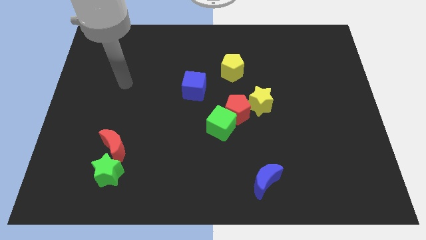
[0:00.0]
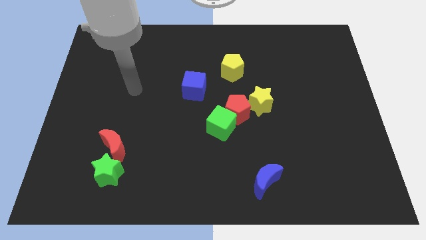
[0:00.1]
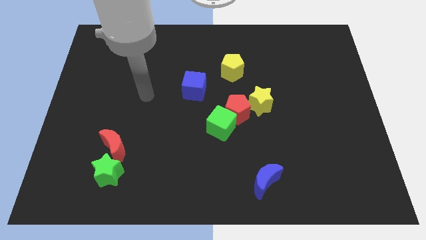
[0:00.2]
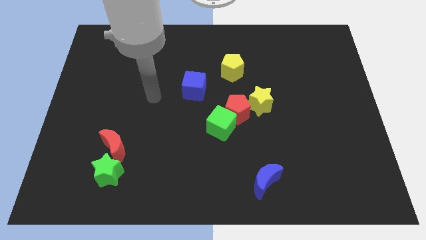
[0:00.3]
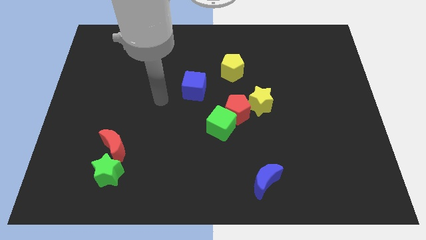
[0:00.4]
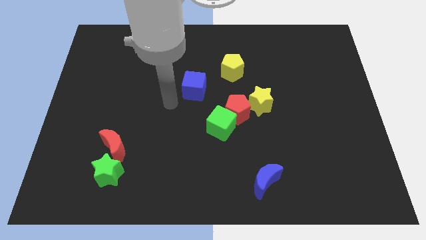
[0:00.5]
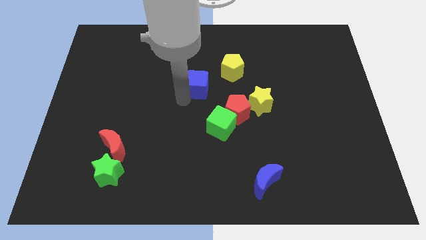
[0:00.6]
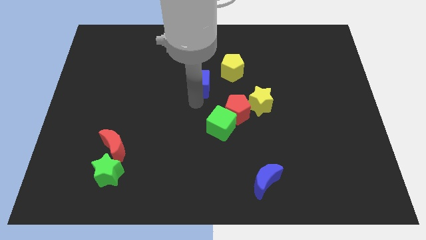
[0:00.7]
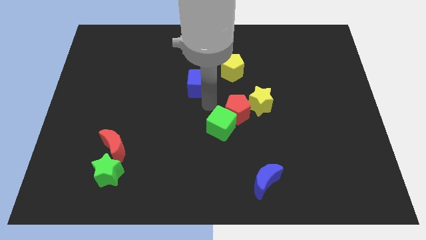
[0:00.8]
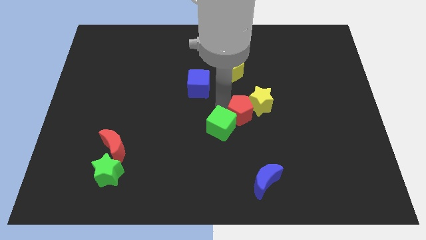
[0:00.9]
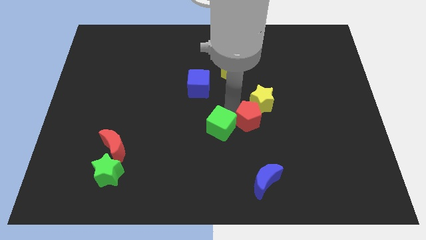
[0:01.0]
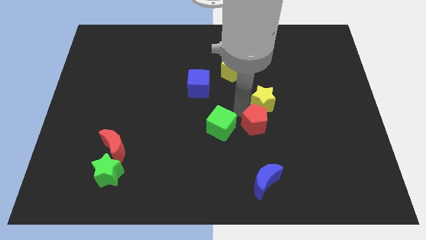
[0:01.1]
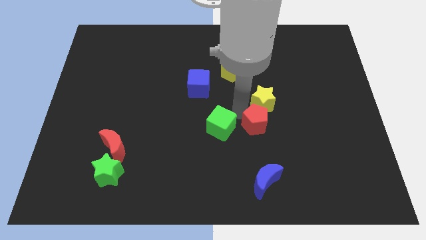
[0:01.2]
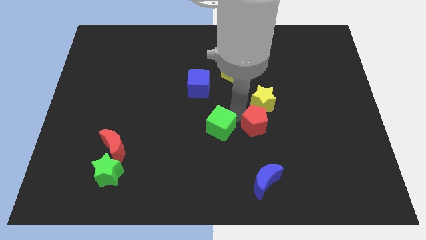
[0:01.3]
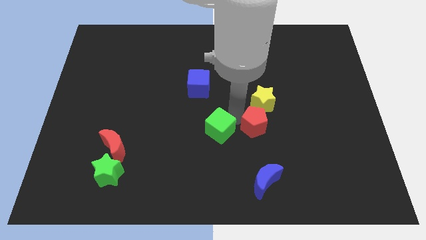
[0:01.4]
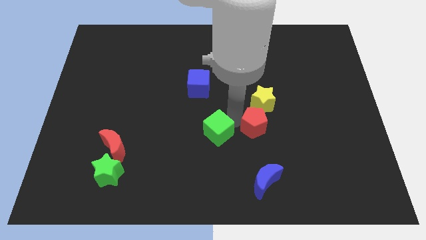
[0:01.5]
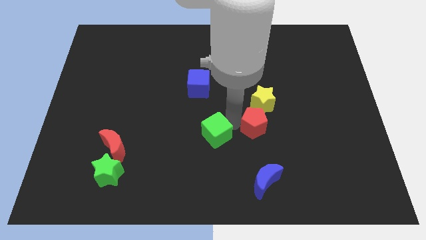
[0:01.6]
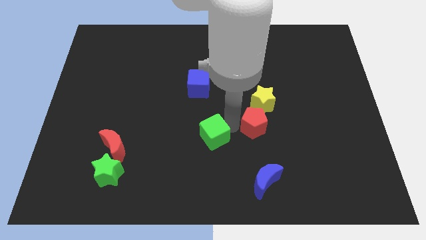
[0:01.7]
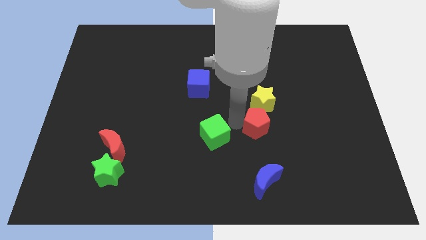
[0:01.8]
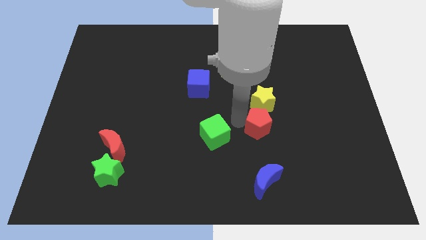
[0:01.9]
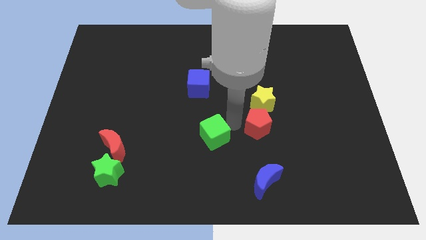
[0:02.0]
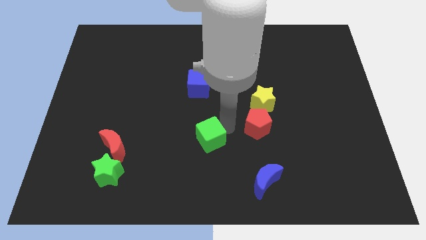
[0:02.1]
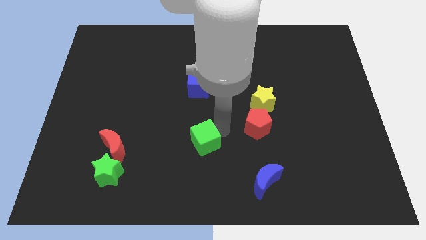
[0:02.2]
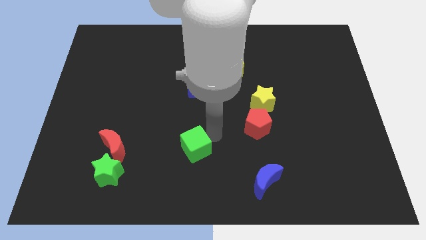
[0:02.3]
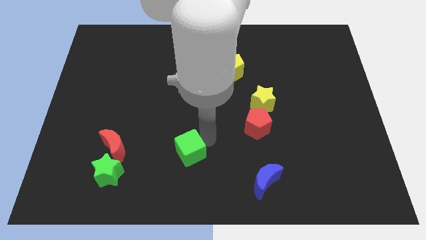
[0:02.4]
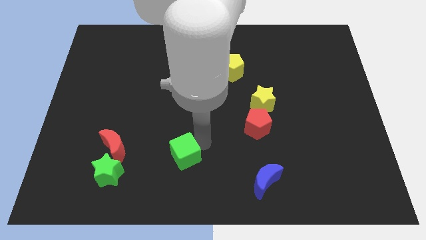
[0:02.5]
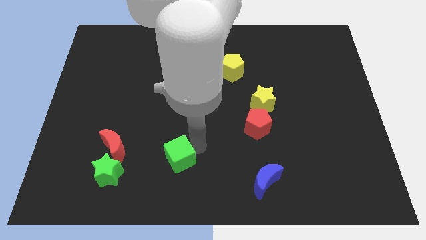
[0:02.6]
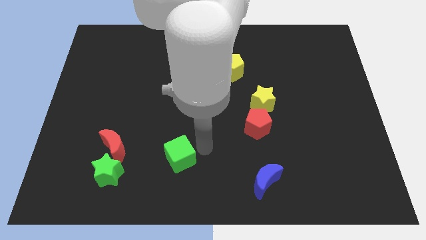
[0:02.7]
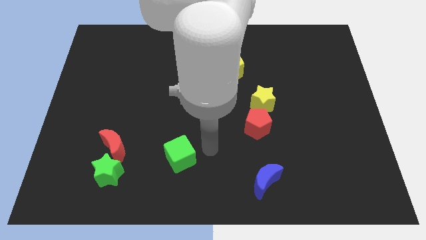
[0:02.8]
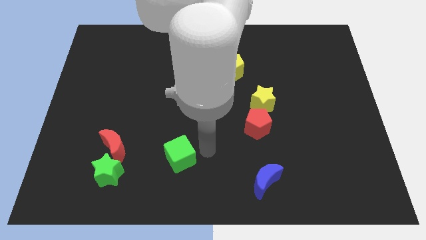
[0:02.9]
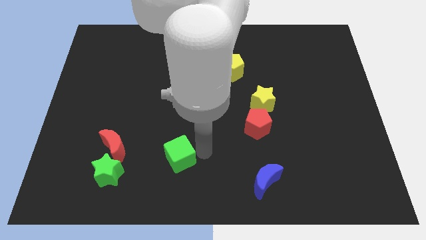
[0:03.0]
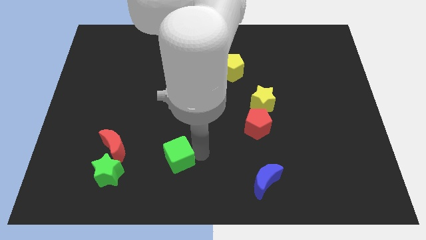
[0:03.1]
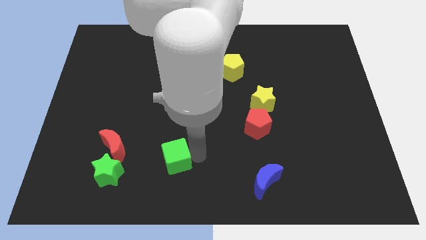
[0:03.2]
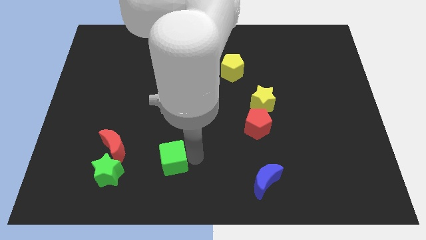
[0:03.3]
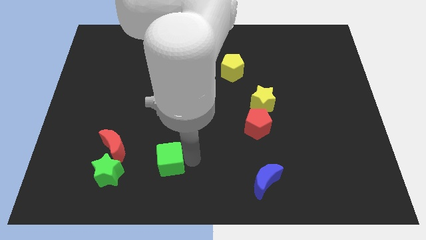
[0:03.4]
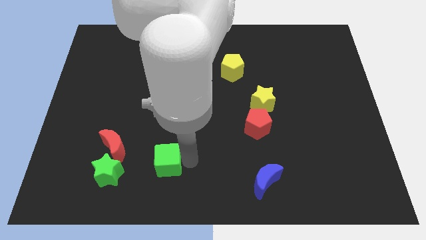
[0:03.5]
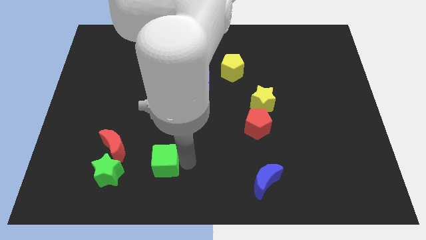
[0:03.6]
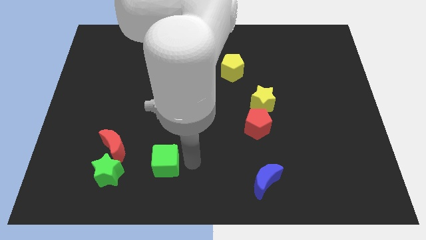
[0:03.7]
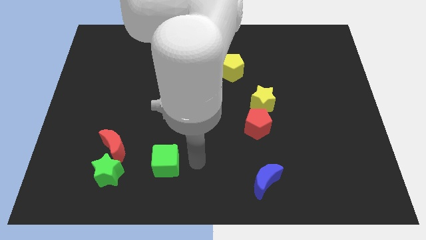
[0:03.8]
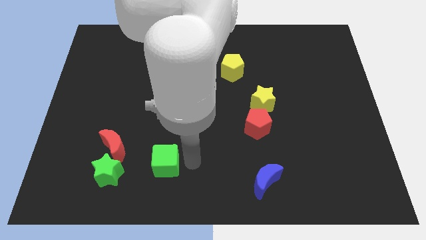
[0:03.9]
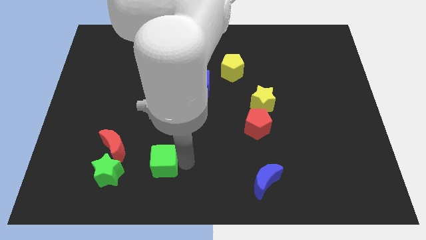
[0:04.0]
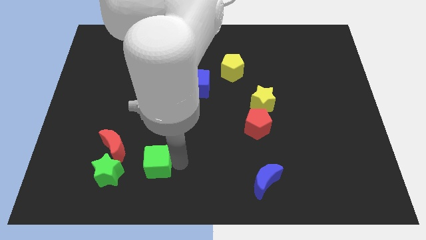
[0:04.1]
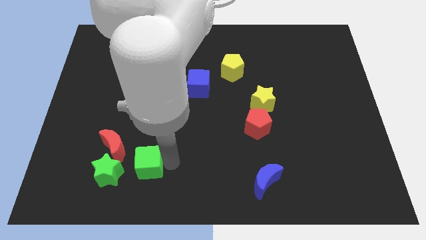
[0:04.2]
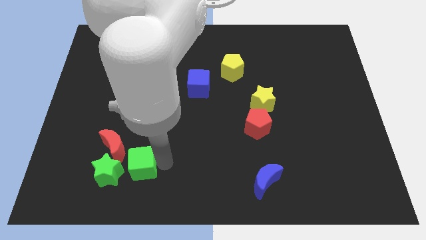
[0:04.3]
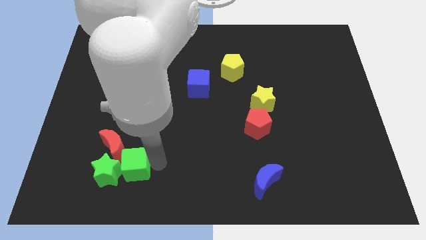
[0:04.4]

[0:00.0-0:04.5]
put the green cube next to the green star

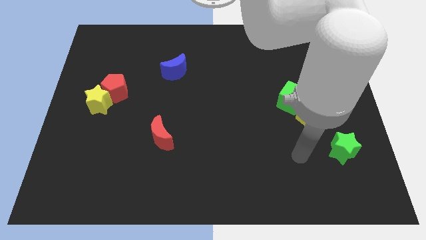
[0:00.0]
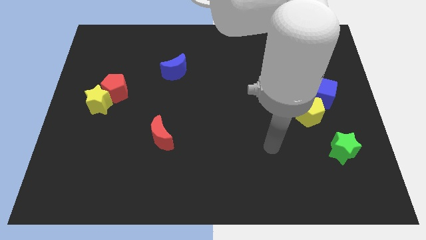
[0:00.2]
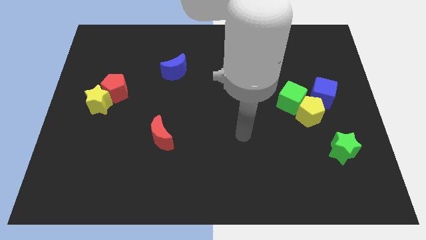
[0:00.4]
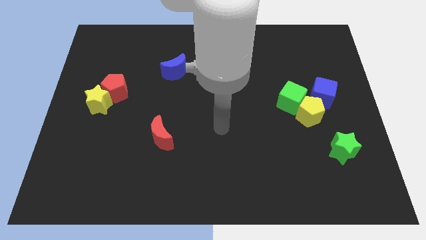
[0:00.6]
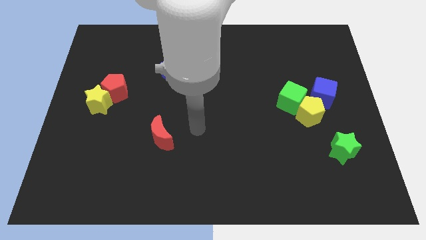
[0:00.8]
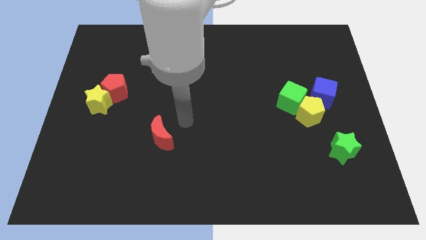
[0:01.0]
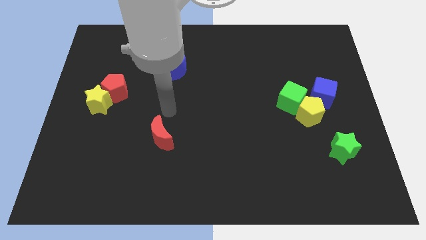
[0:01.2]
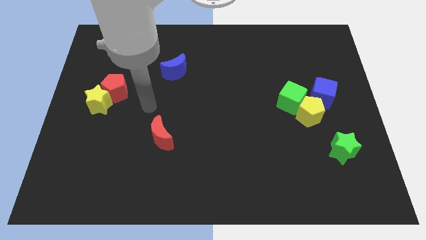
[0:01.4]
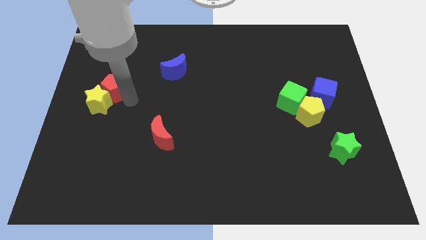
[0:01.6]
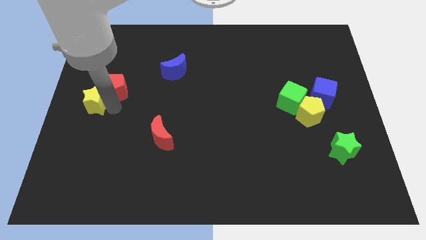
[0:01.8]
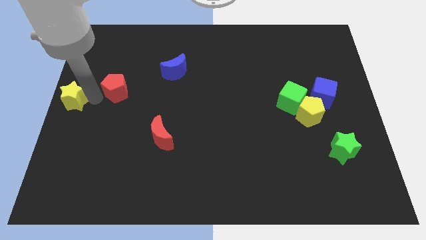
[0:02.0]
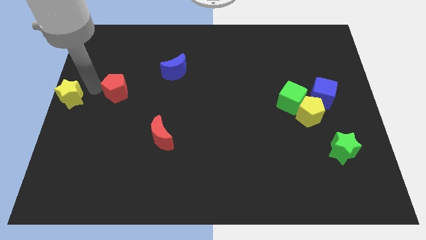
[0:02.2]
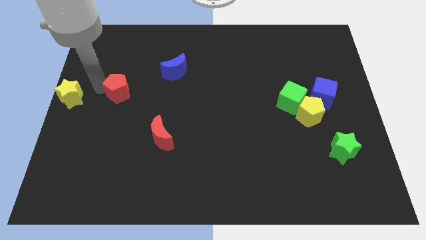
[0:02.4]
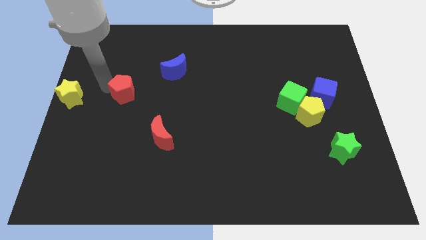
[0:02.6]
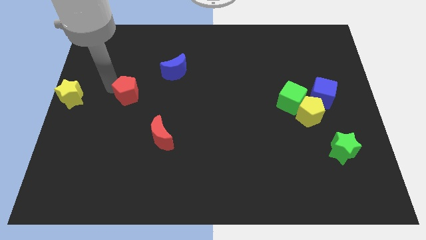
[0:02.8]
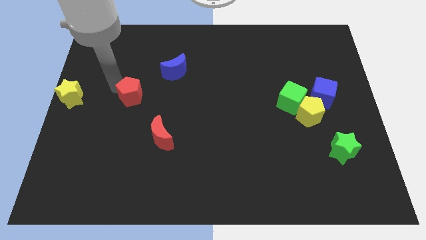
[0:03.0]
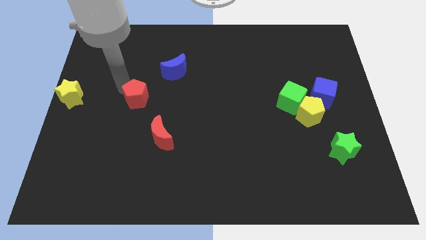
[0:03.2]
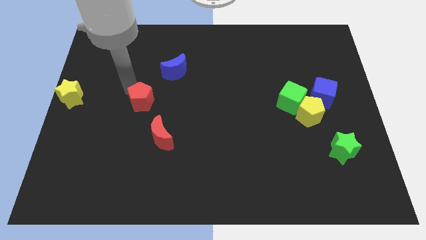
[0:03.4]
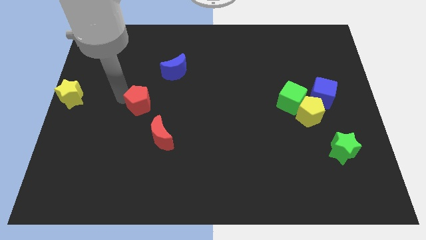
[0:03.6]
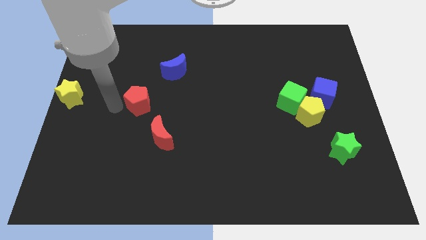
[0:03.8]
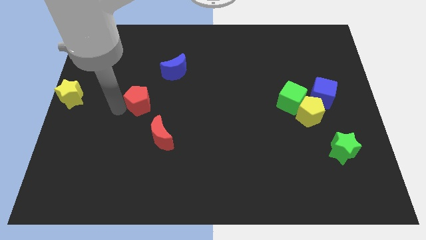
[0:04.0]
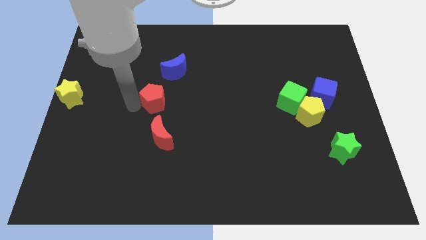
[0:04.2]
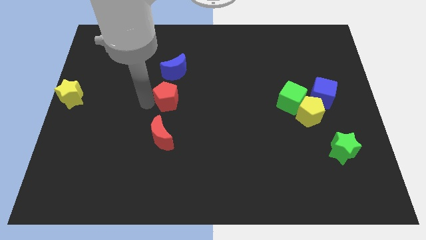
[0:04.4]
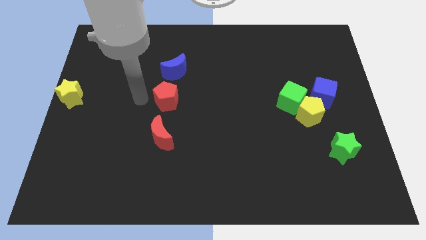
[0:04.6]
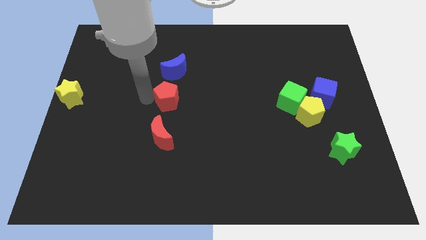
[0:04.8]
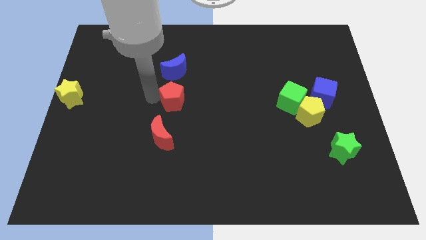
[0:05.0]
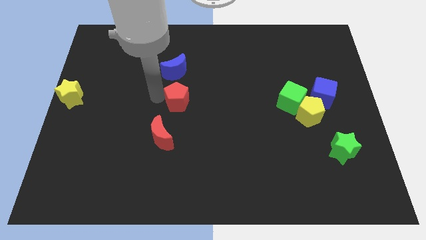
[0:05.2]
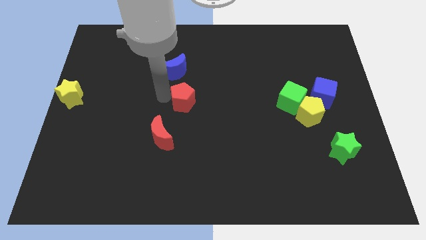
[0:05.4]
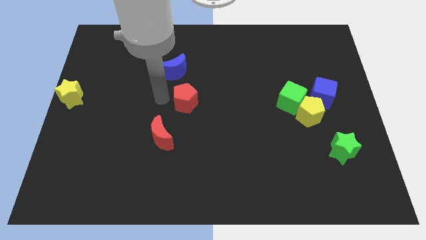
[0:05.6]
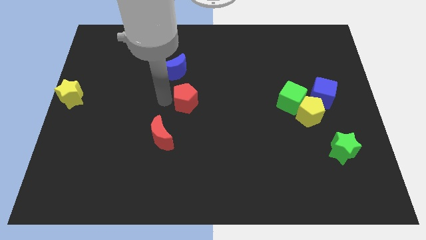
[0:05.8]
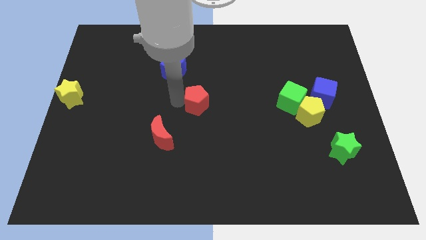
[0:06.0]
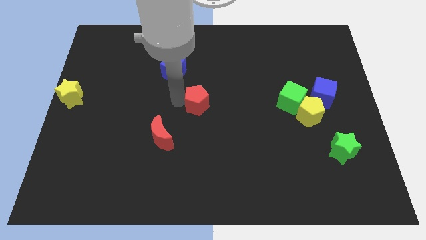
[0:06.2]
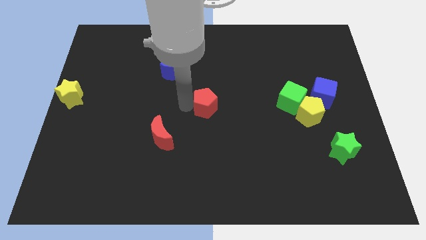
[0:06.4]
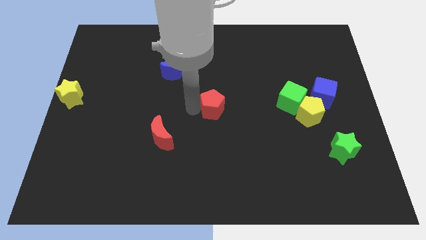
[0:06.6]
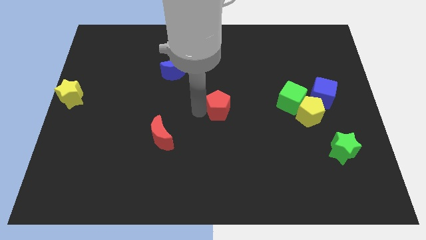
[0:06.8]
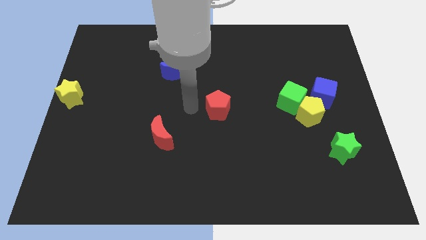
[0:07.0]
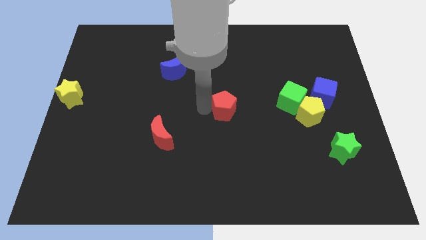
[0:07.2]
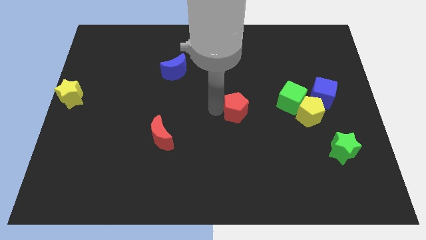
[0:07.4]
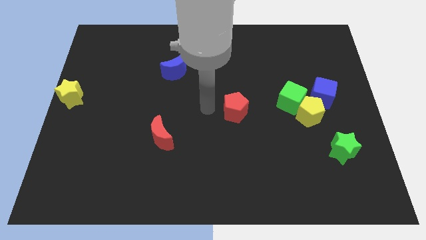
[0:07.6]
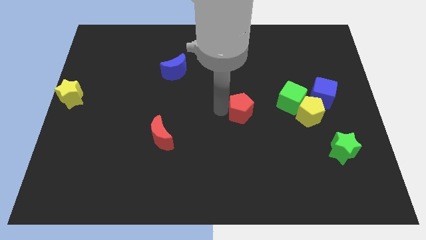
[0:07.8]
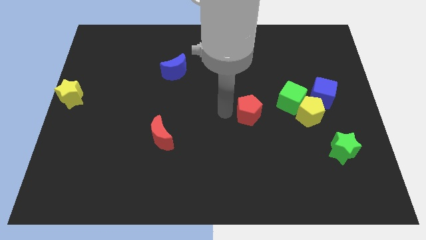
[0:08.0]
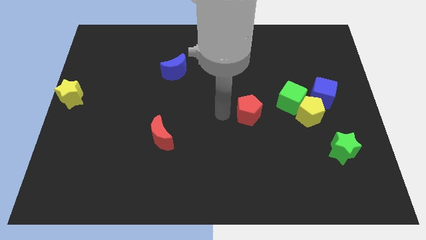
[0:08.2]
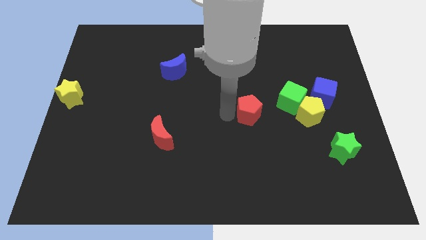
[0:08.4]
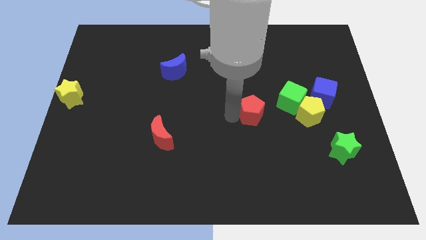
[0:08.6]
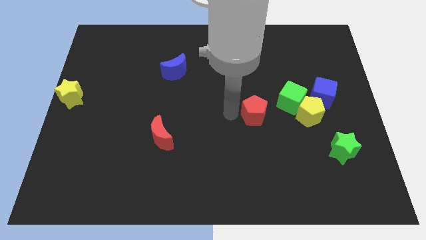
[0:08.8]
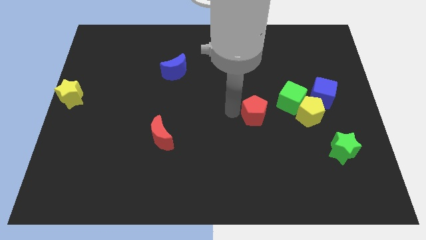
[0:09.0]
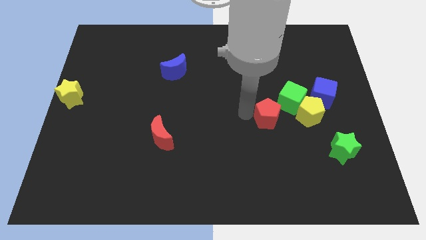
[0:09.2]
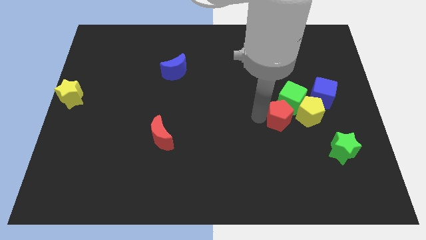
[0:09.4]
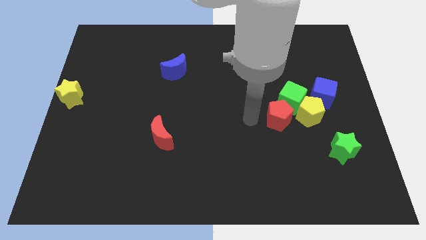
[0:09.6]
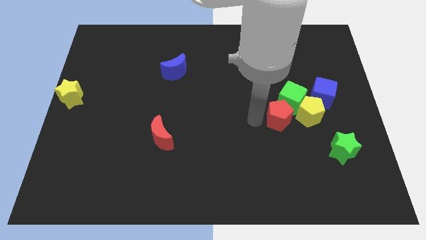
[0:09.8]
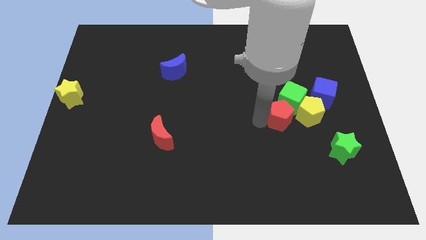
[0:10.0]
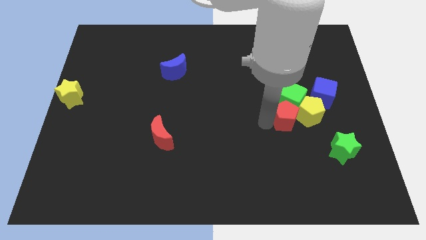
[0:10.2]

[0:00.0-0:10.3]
push the red pentagon next to the yellow pentagon
